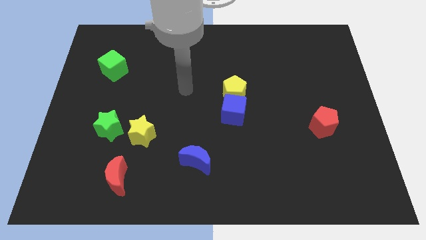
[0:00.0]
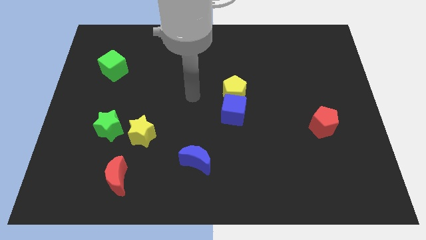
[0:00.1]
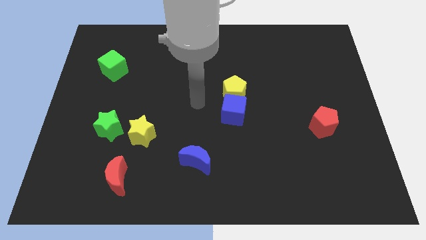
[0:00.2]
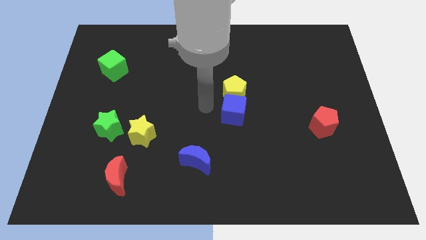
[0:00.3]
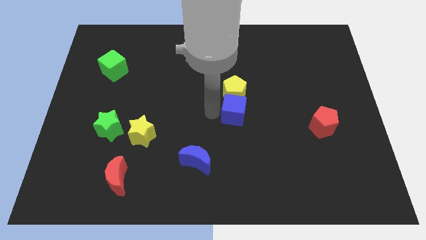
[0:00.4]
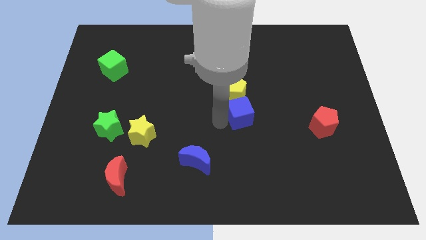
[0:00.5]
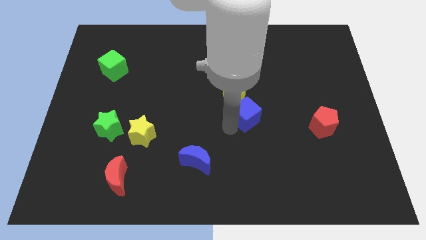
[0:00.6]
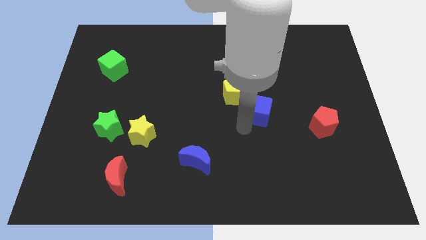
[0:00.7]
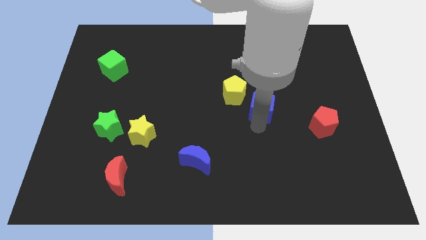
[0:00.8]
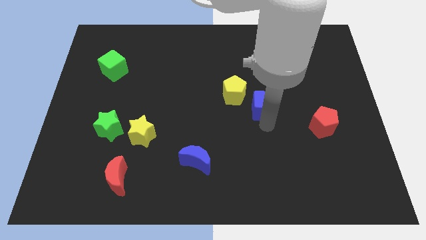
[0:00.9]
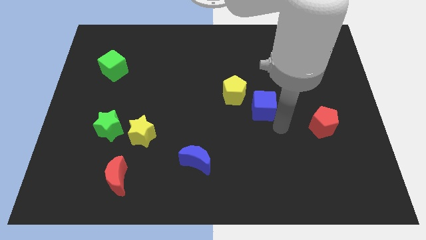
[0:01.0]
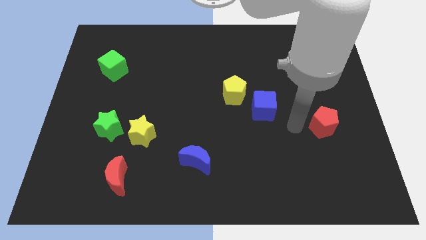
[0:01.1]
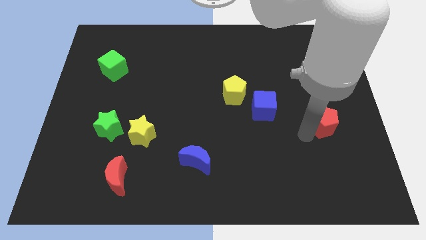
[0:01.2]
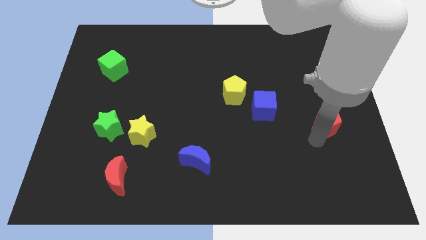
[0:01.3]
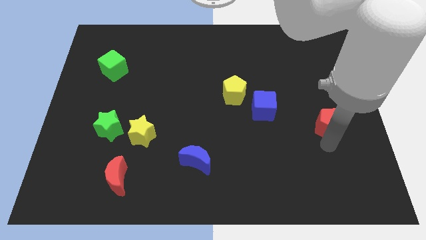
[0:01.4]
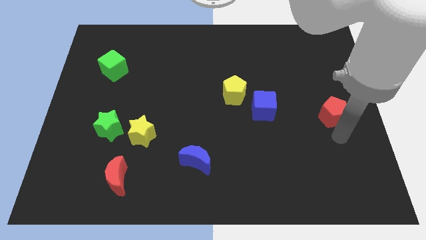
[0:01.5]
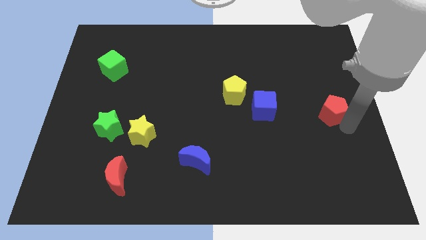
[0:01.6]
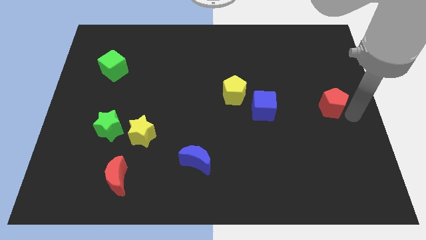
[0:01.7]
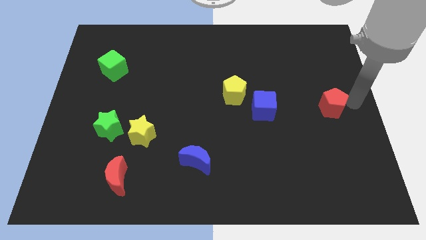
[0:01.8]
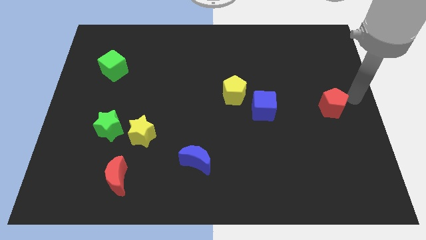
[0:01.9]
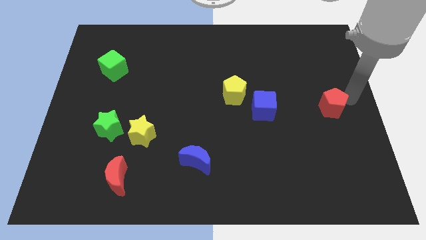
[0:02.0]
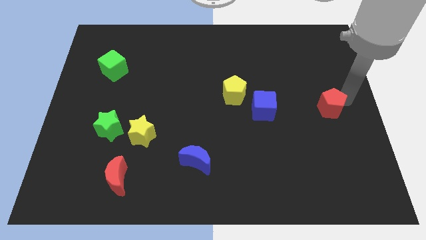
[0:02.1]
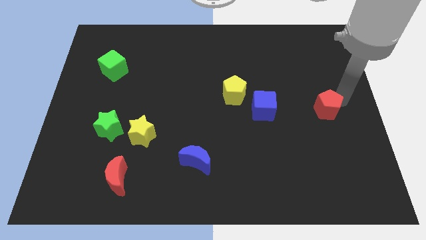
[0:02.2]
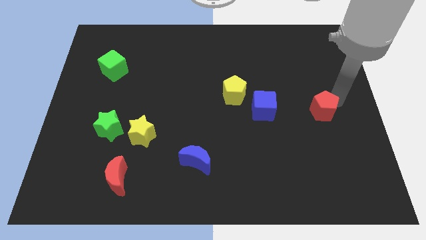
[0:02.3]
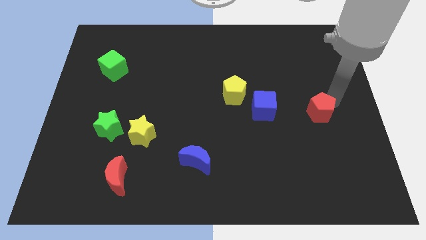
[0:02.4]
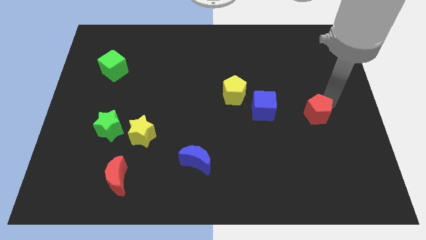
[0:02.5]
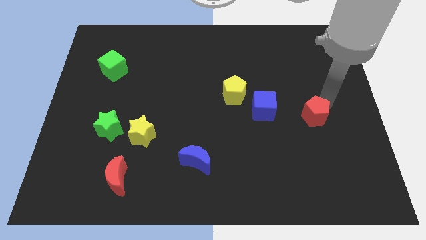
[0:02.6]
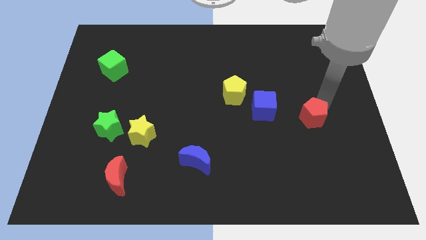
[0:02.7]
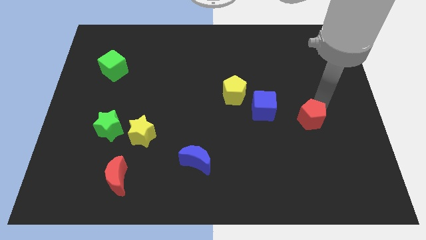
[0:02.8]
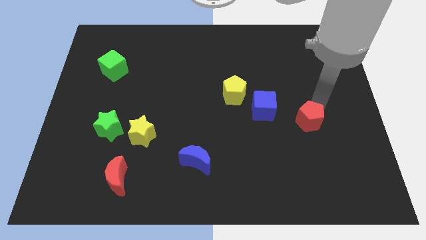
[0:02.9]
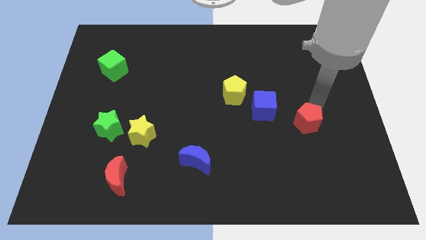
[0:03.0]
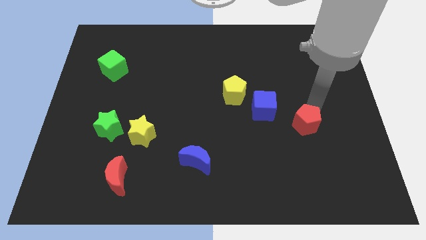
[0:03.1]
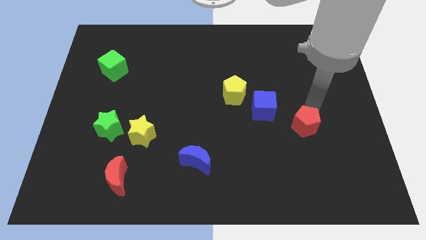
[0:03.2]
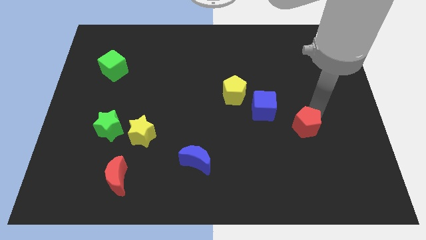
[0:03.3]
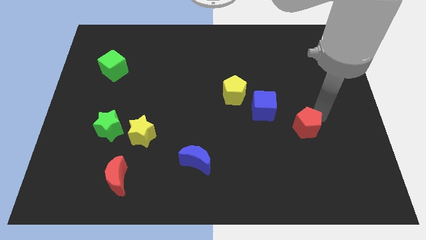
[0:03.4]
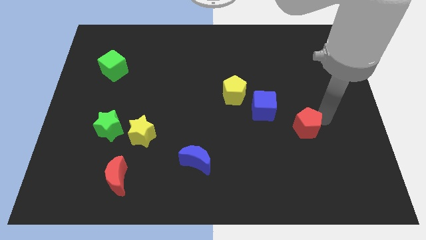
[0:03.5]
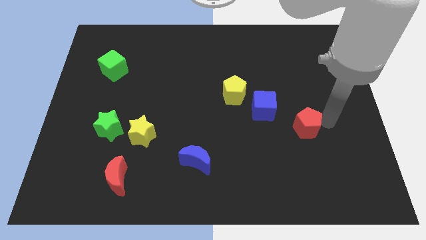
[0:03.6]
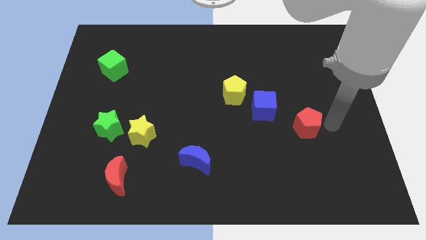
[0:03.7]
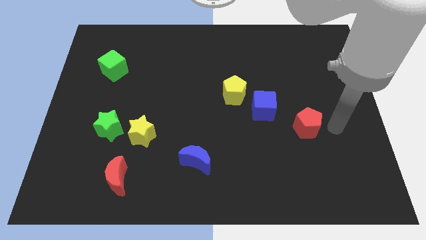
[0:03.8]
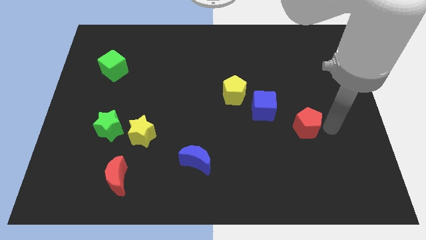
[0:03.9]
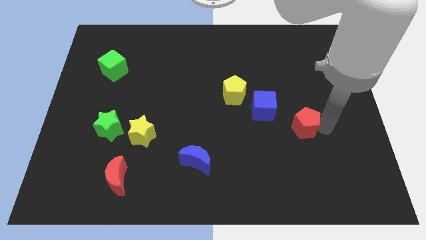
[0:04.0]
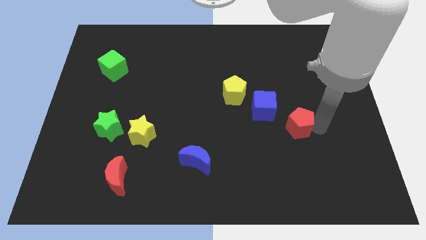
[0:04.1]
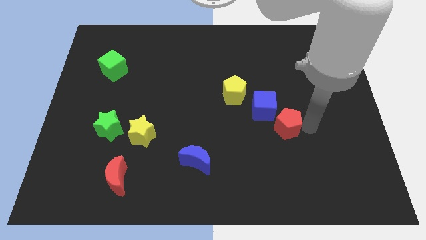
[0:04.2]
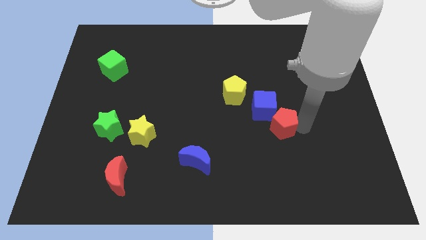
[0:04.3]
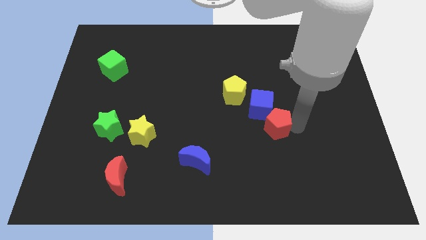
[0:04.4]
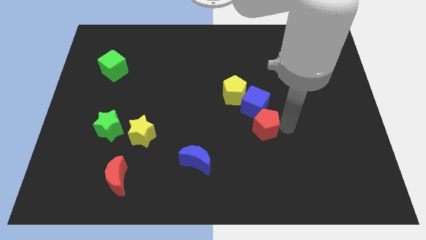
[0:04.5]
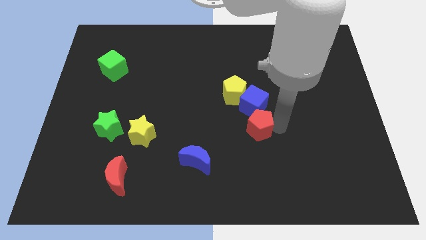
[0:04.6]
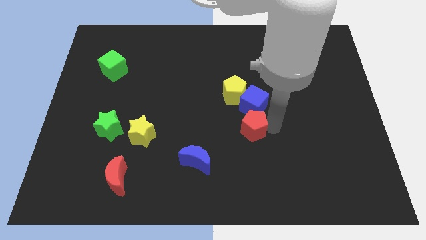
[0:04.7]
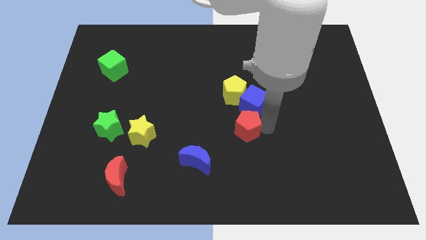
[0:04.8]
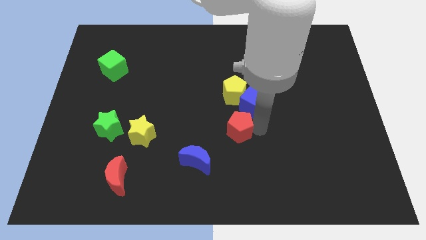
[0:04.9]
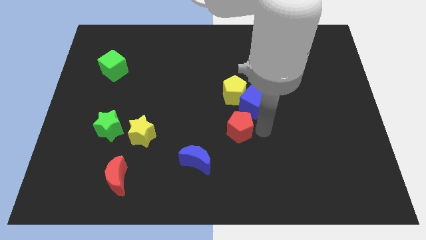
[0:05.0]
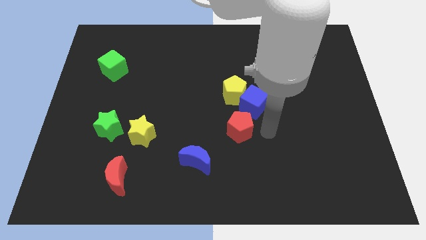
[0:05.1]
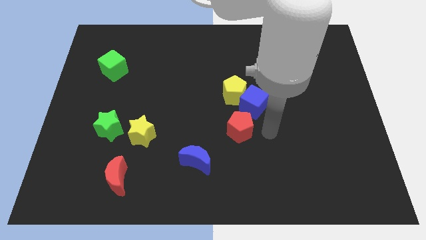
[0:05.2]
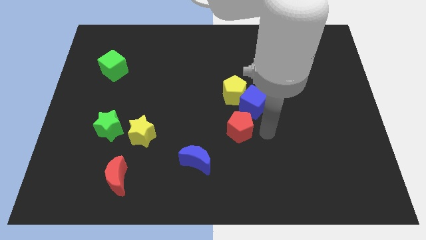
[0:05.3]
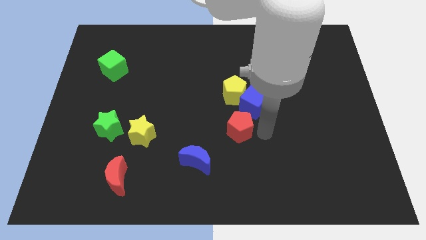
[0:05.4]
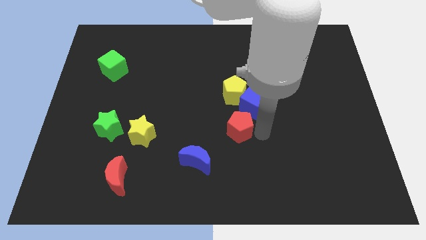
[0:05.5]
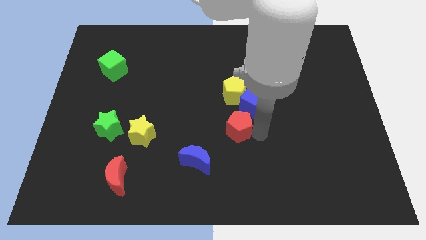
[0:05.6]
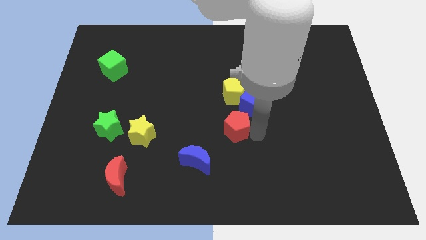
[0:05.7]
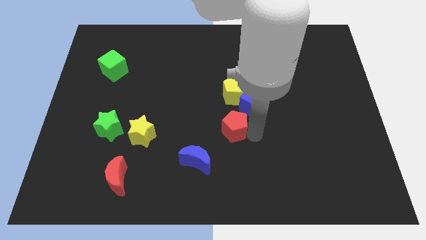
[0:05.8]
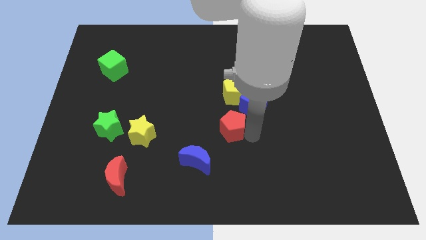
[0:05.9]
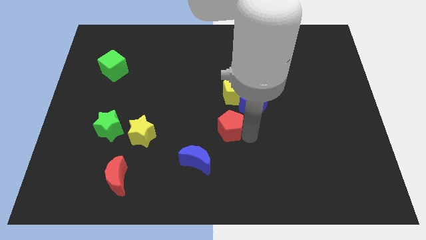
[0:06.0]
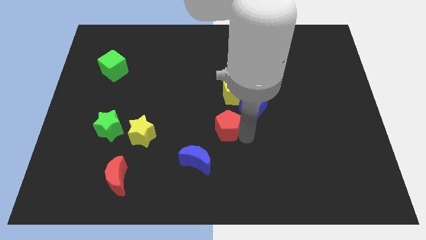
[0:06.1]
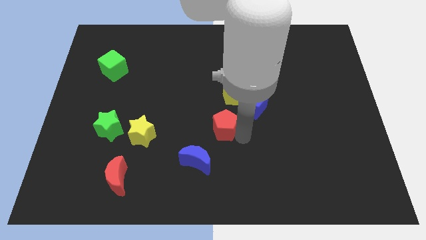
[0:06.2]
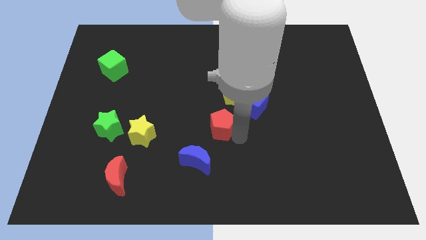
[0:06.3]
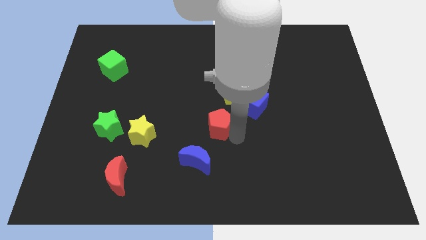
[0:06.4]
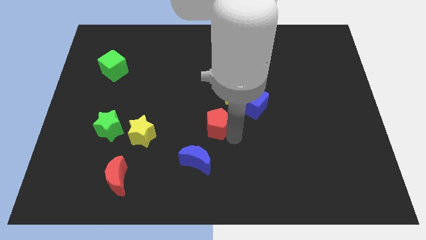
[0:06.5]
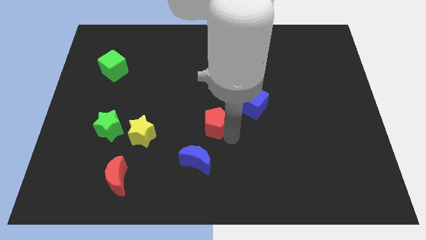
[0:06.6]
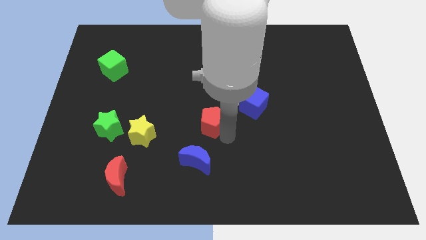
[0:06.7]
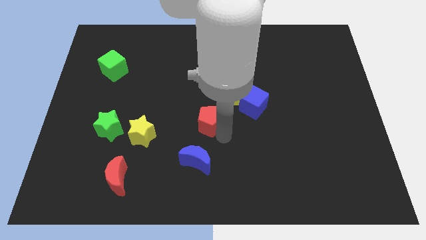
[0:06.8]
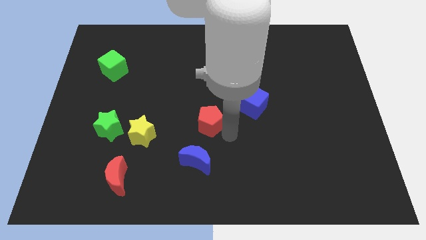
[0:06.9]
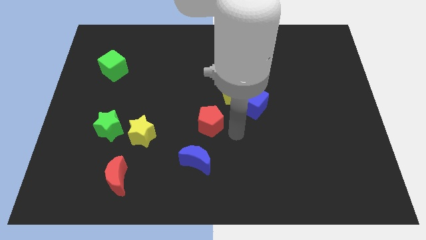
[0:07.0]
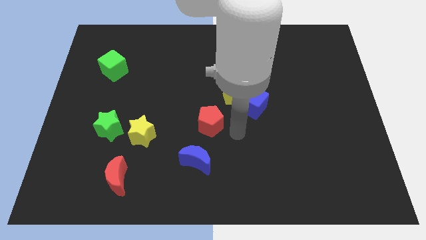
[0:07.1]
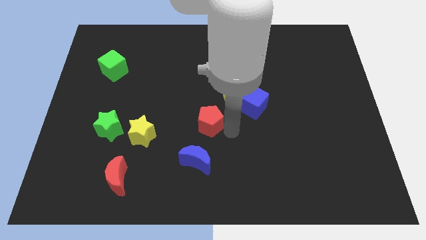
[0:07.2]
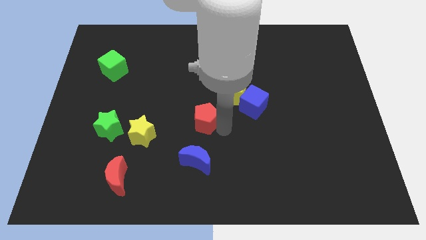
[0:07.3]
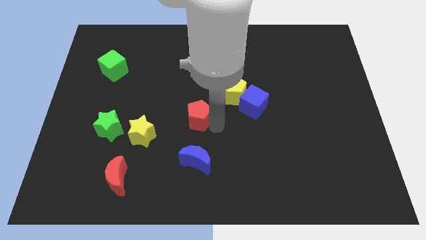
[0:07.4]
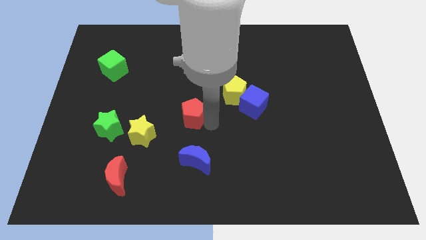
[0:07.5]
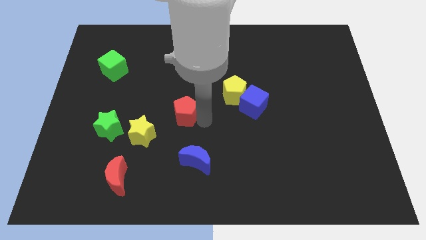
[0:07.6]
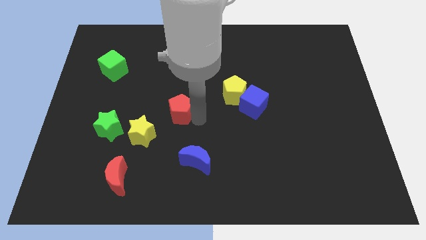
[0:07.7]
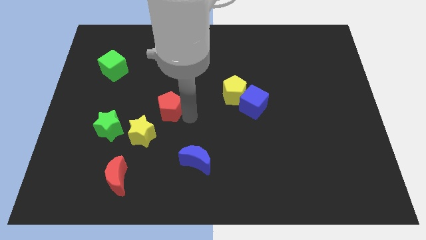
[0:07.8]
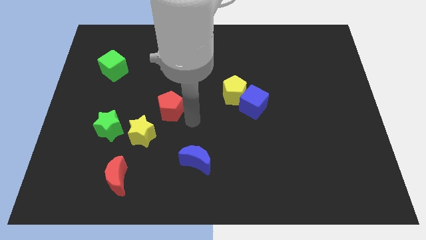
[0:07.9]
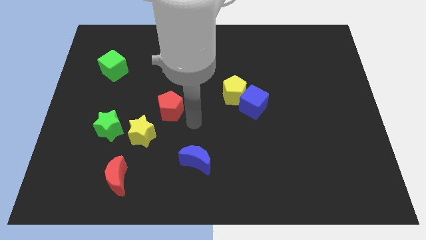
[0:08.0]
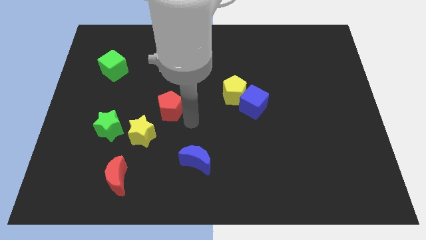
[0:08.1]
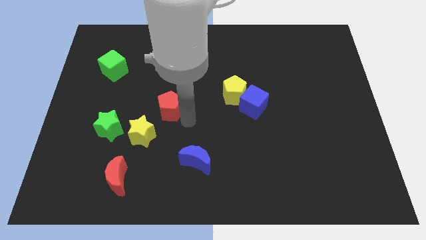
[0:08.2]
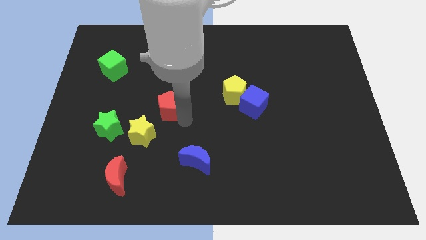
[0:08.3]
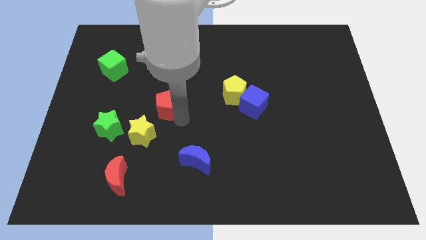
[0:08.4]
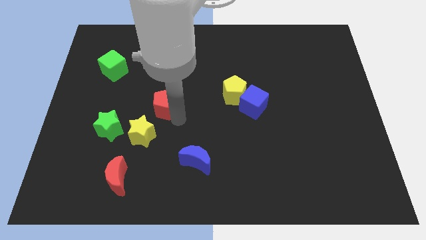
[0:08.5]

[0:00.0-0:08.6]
put the red pentagon to the top of the yellow star
